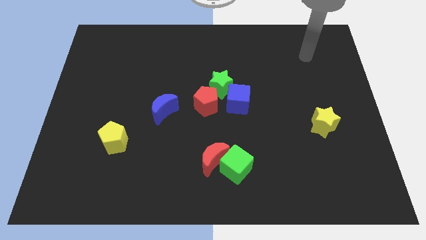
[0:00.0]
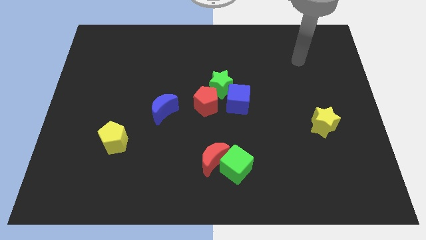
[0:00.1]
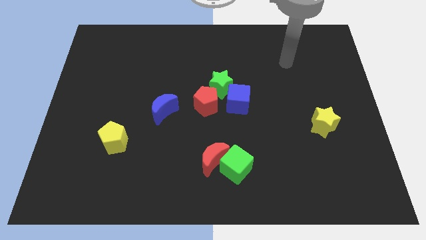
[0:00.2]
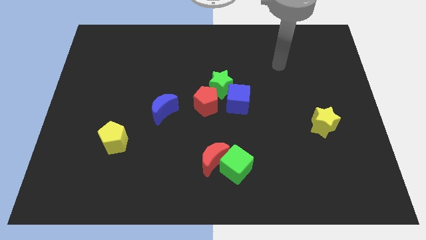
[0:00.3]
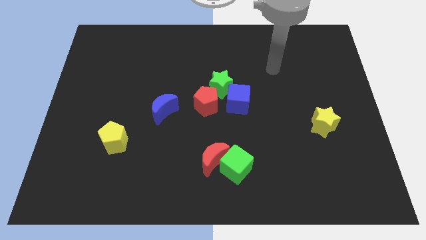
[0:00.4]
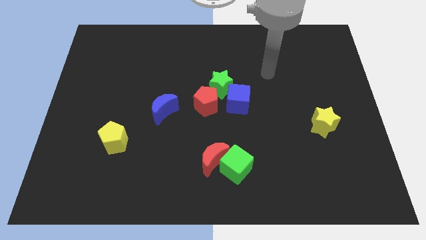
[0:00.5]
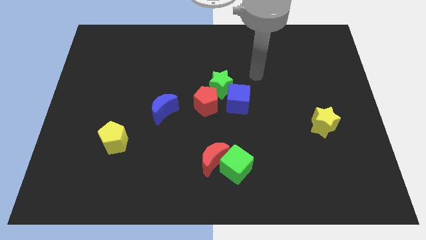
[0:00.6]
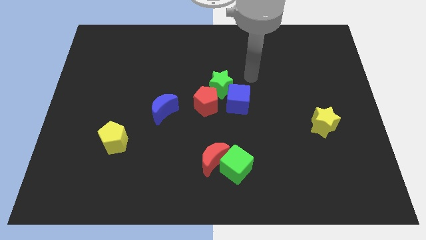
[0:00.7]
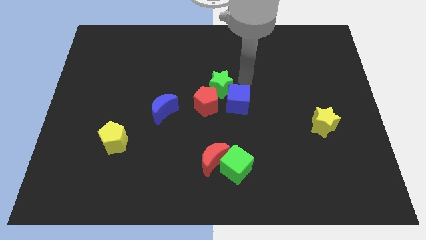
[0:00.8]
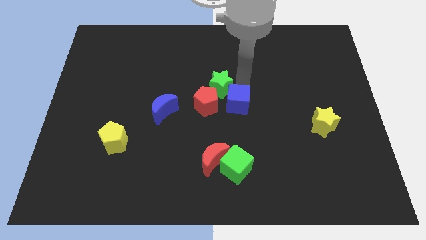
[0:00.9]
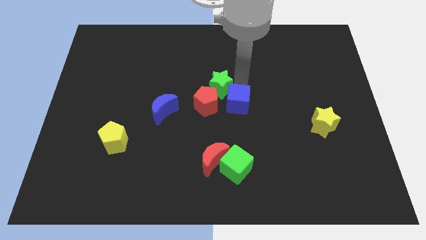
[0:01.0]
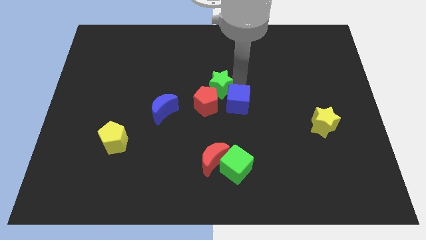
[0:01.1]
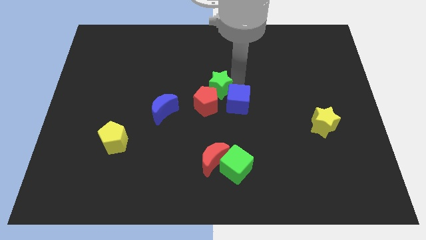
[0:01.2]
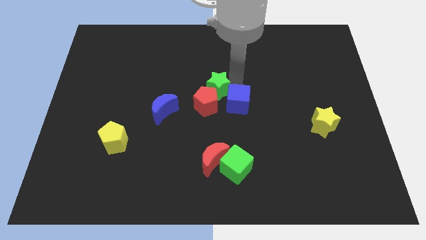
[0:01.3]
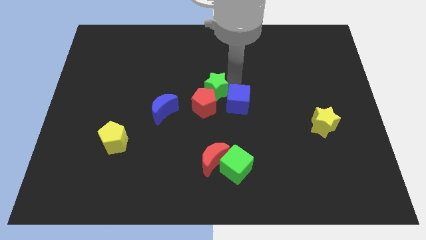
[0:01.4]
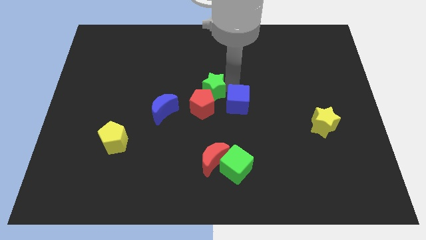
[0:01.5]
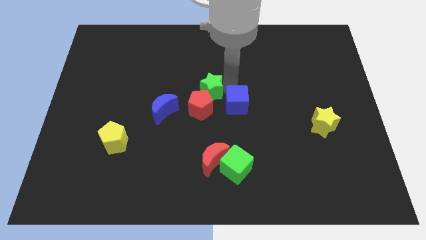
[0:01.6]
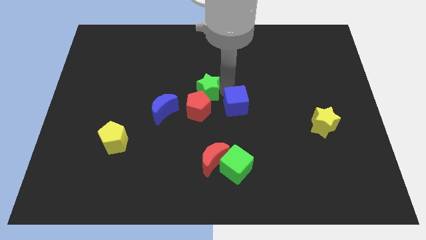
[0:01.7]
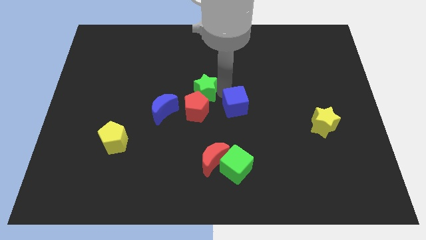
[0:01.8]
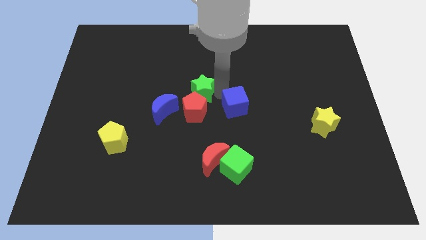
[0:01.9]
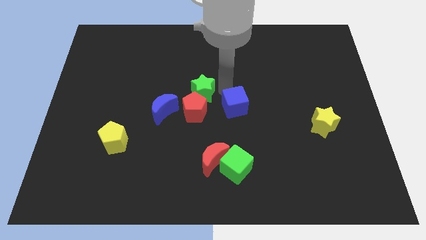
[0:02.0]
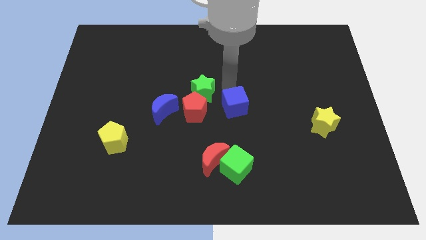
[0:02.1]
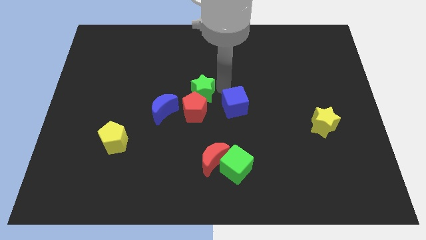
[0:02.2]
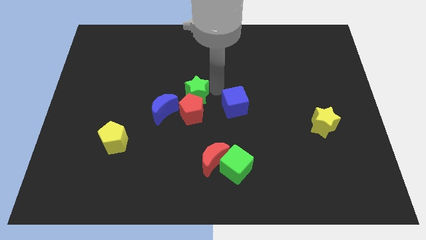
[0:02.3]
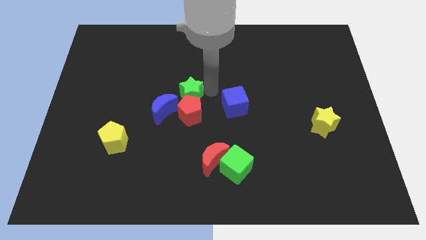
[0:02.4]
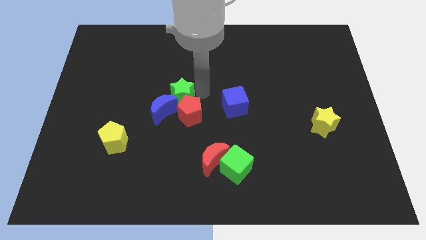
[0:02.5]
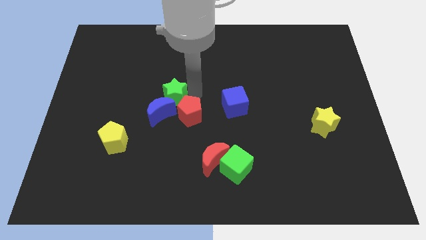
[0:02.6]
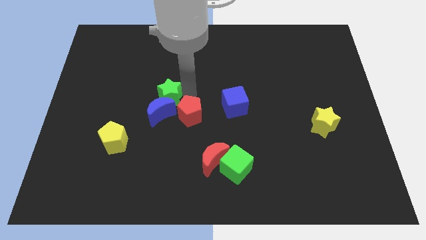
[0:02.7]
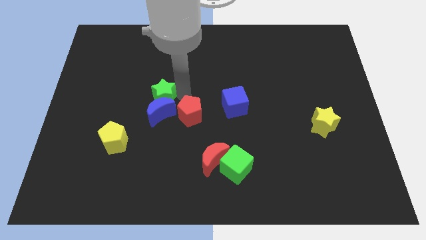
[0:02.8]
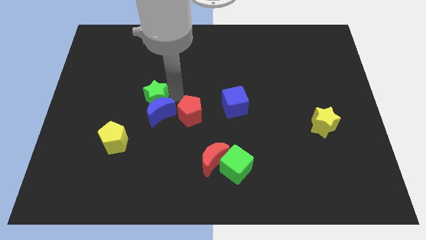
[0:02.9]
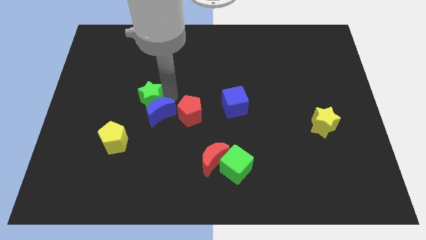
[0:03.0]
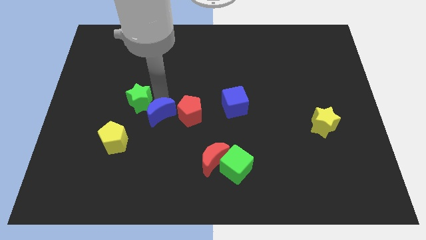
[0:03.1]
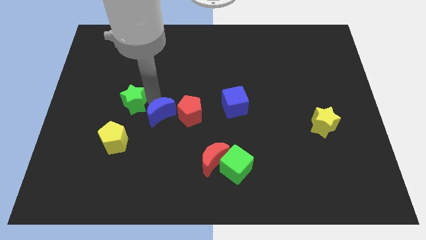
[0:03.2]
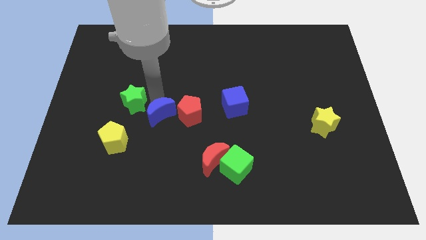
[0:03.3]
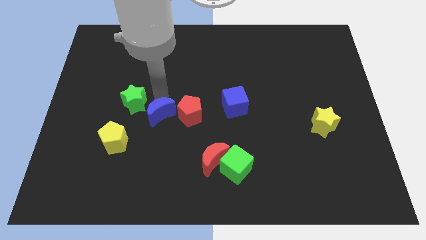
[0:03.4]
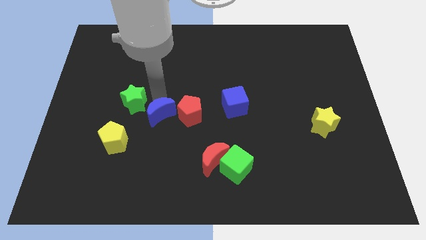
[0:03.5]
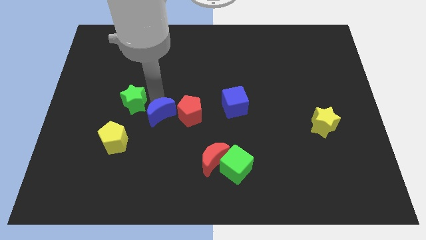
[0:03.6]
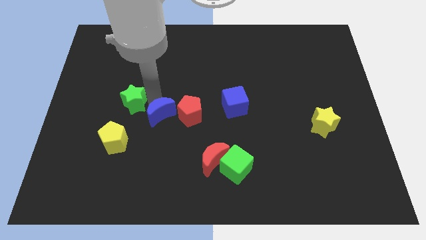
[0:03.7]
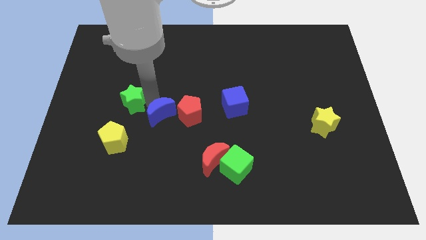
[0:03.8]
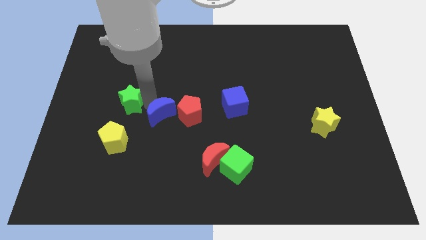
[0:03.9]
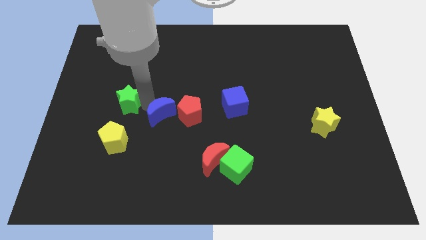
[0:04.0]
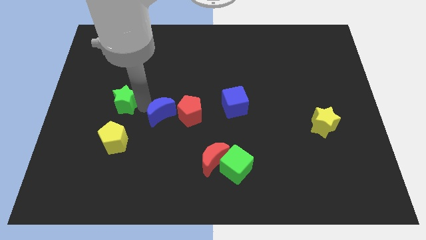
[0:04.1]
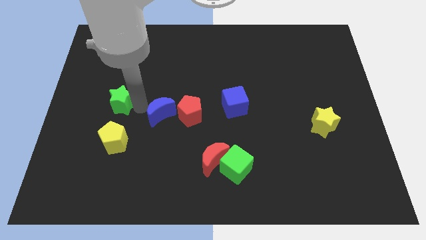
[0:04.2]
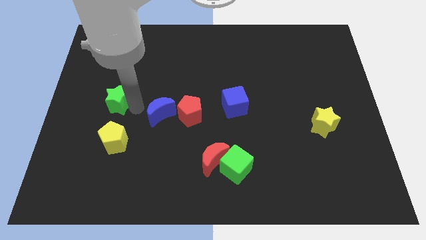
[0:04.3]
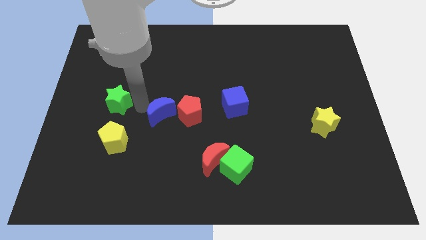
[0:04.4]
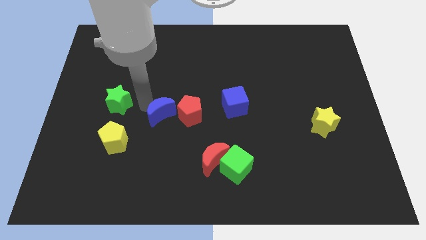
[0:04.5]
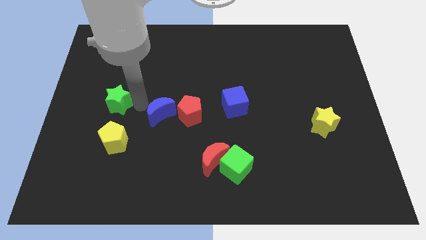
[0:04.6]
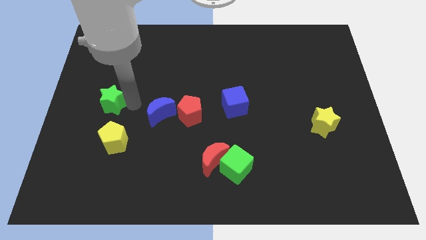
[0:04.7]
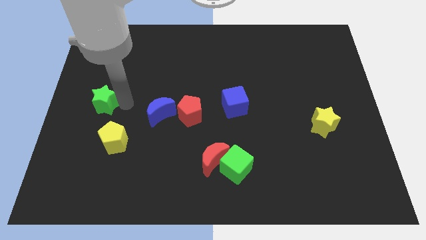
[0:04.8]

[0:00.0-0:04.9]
slide the green star to the left side of the board

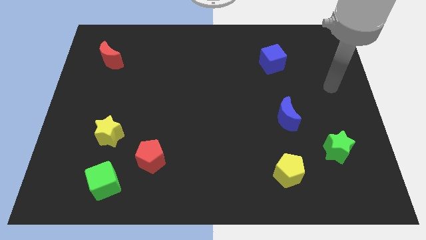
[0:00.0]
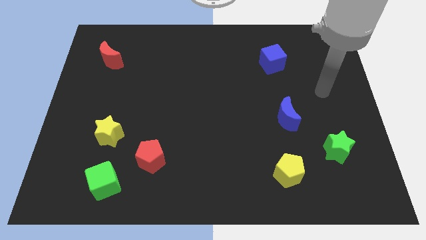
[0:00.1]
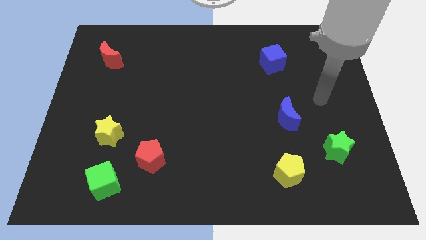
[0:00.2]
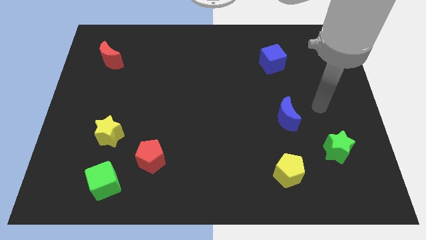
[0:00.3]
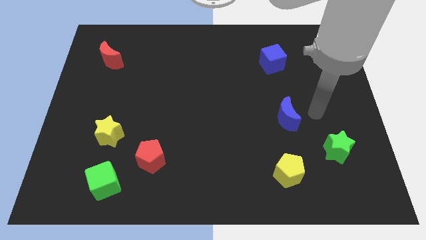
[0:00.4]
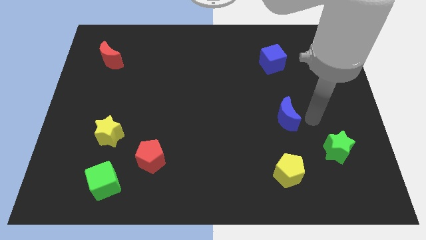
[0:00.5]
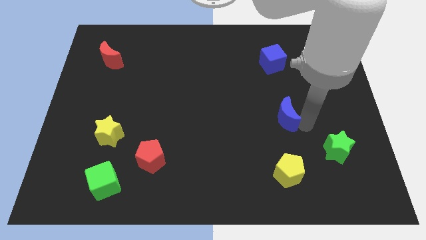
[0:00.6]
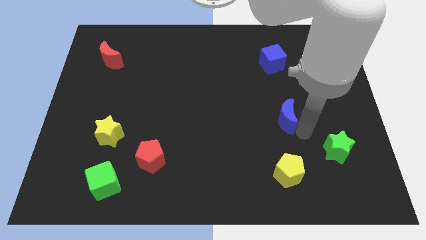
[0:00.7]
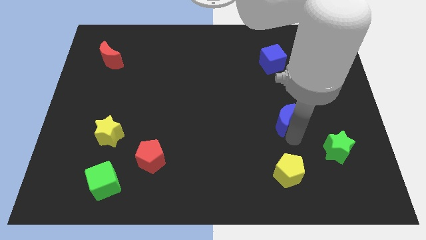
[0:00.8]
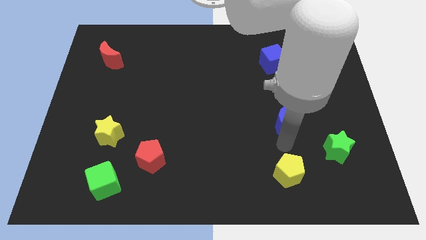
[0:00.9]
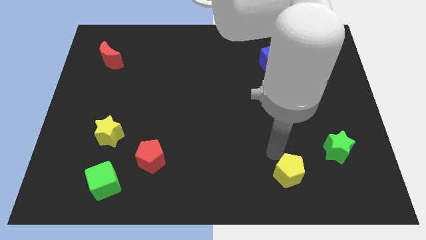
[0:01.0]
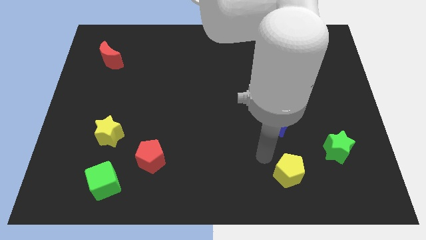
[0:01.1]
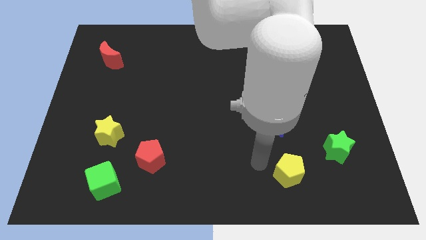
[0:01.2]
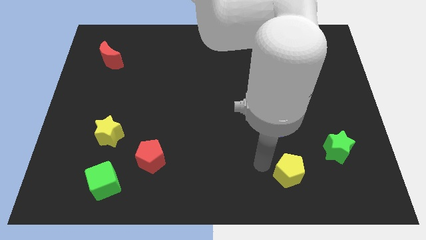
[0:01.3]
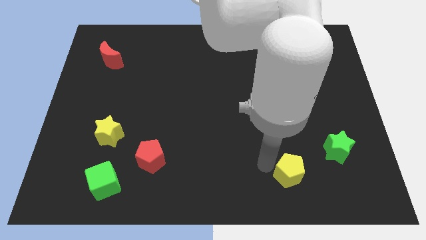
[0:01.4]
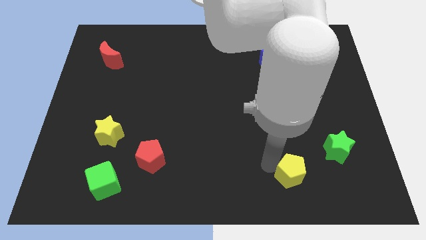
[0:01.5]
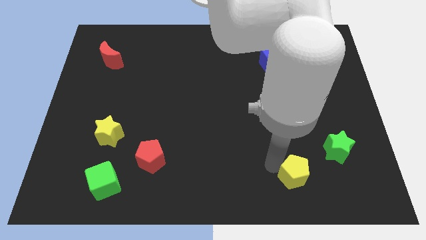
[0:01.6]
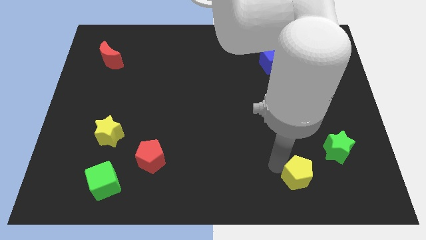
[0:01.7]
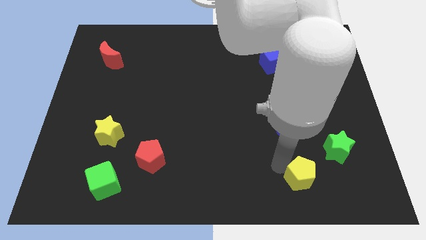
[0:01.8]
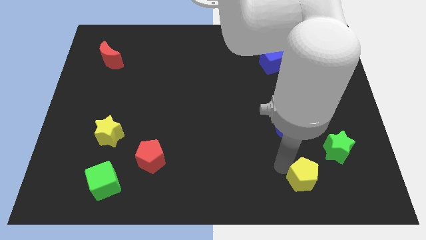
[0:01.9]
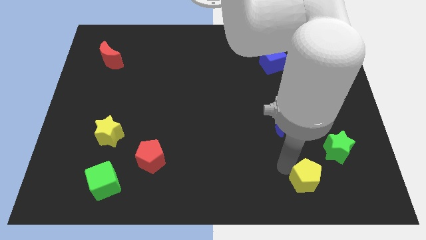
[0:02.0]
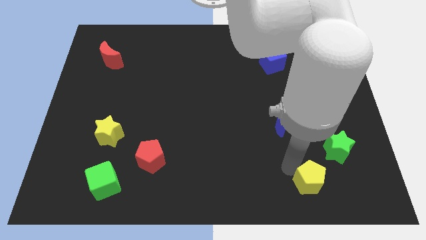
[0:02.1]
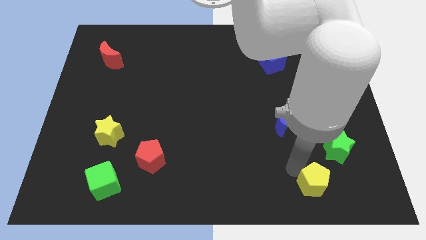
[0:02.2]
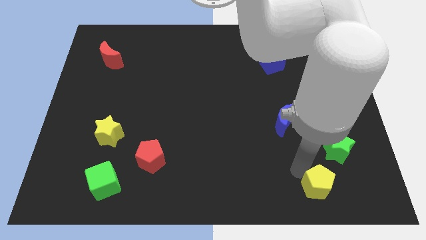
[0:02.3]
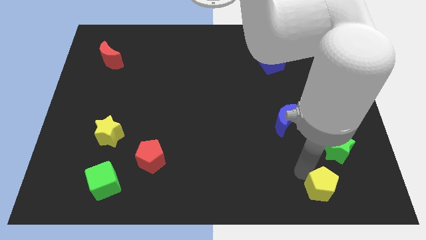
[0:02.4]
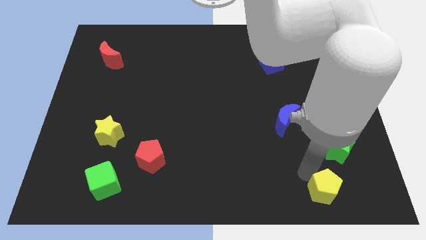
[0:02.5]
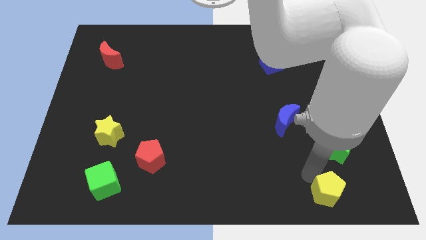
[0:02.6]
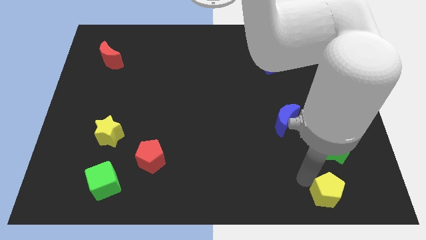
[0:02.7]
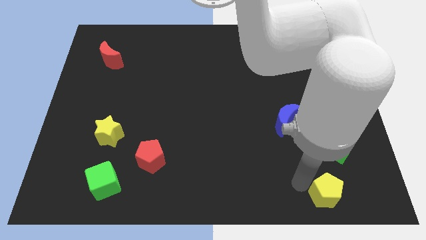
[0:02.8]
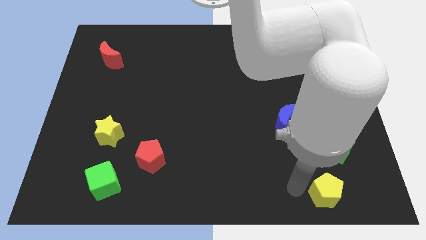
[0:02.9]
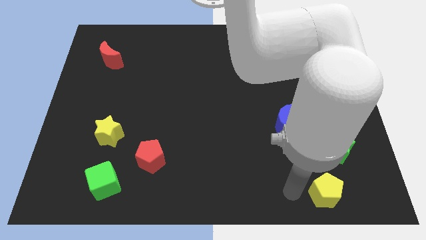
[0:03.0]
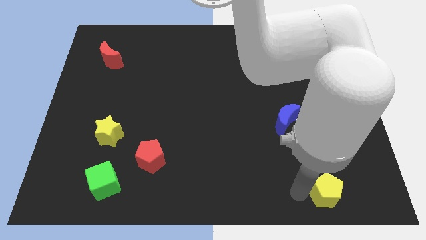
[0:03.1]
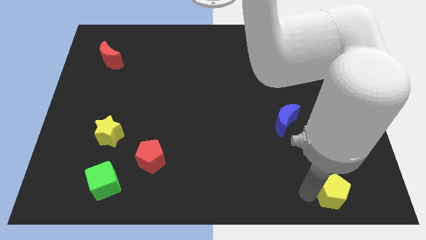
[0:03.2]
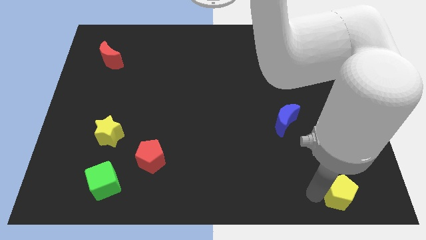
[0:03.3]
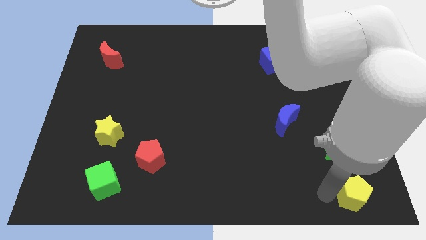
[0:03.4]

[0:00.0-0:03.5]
push the yellow pentagon to the bottom right of the board
